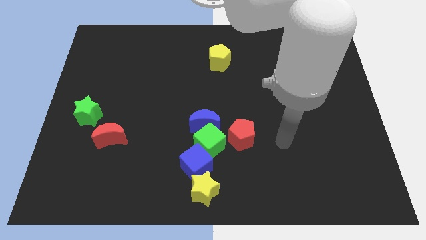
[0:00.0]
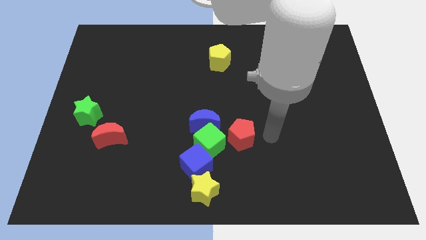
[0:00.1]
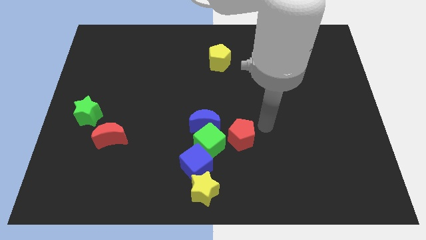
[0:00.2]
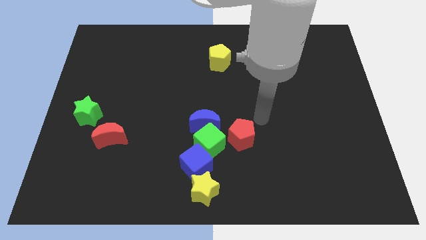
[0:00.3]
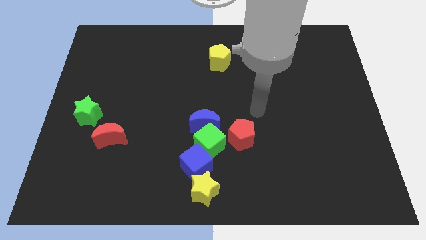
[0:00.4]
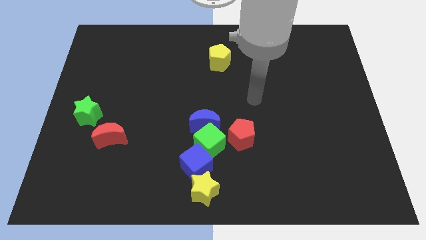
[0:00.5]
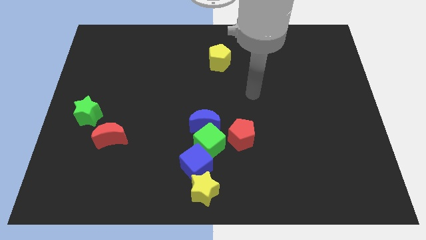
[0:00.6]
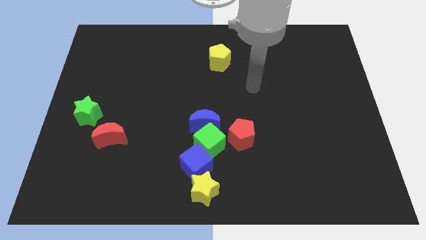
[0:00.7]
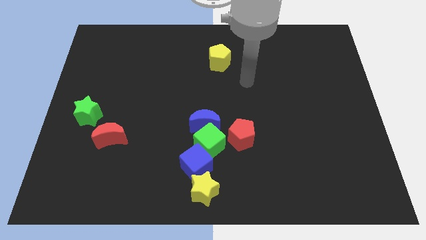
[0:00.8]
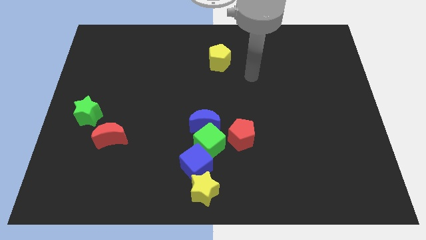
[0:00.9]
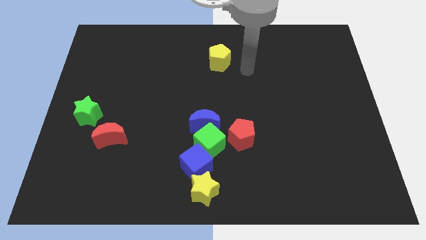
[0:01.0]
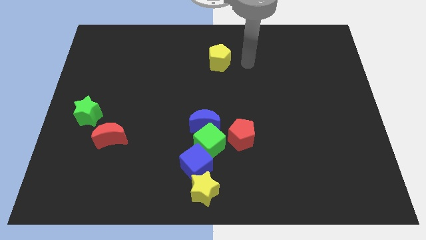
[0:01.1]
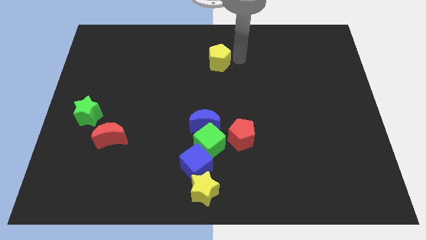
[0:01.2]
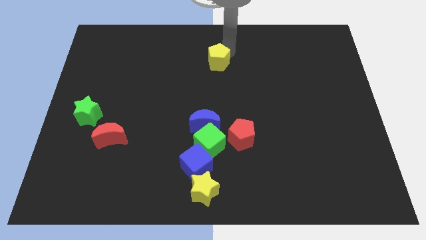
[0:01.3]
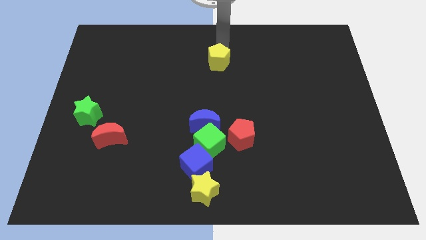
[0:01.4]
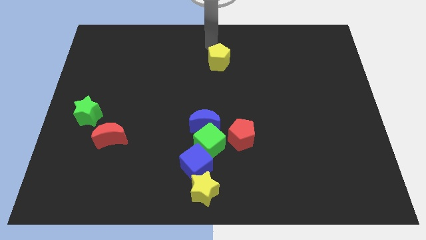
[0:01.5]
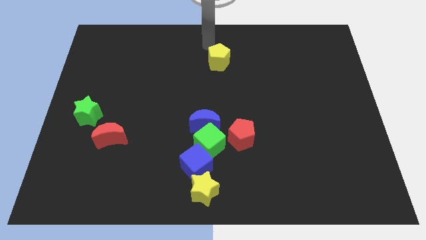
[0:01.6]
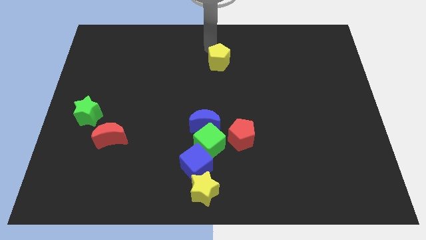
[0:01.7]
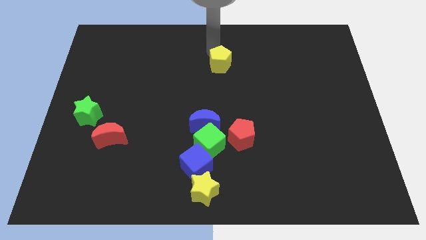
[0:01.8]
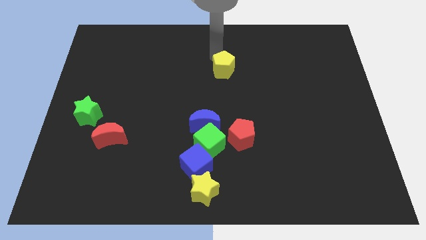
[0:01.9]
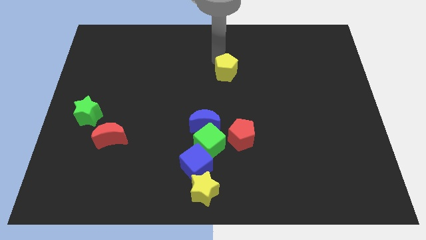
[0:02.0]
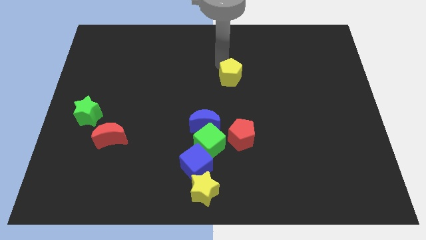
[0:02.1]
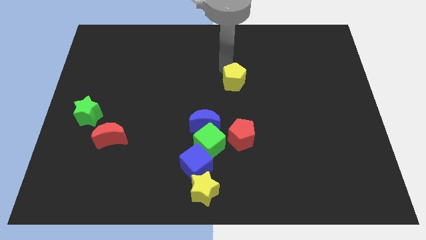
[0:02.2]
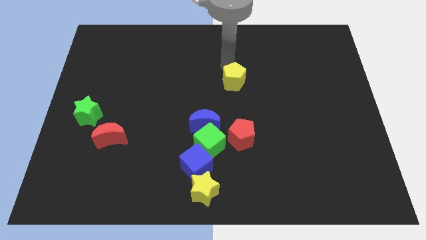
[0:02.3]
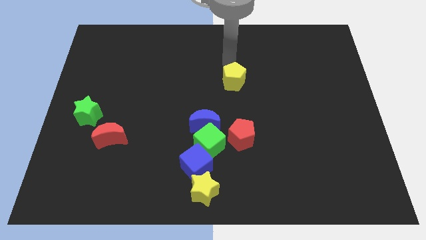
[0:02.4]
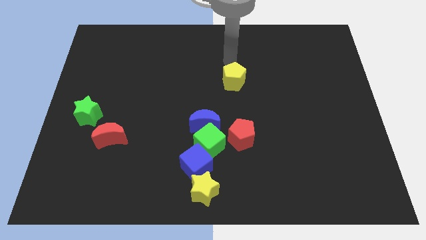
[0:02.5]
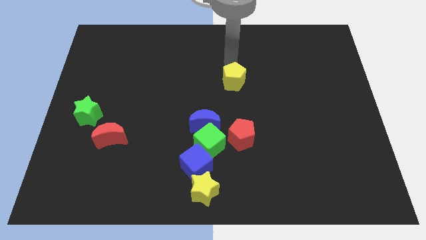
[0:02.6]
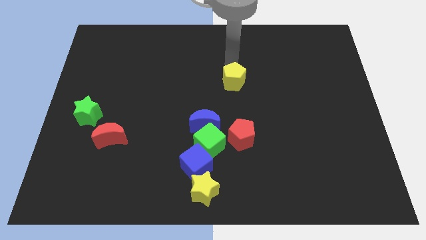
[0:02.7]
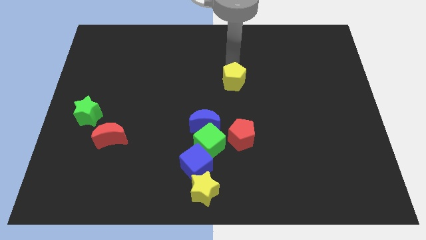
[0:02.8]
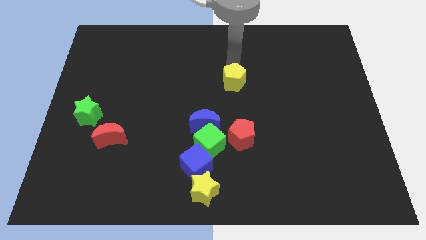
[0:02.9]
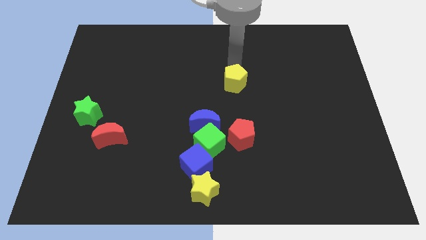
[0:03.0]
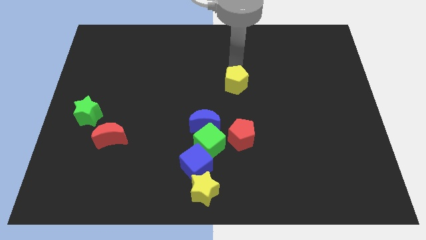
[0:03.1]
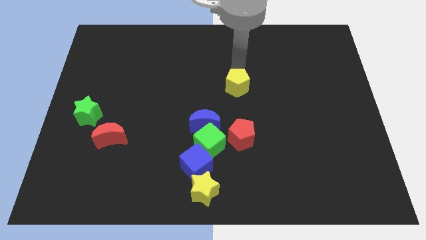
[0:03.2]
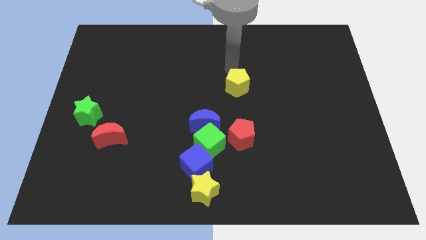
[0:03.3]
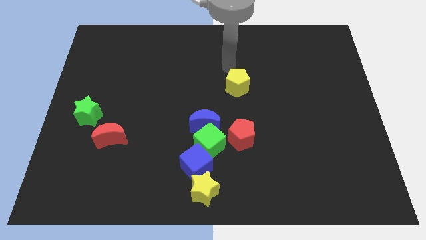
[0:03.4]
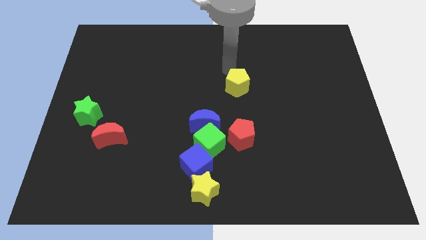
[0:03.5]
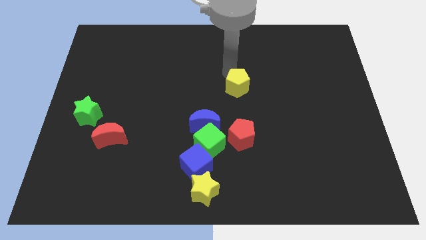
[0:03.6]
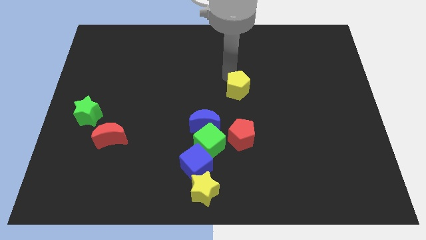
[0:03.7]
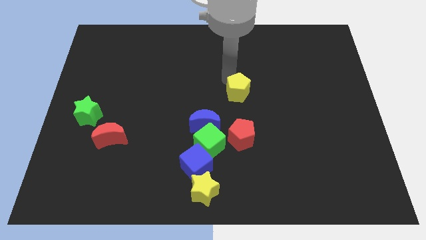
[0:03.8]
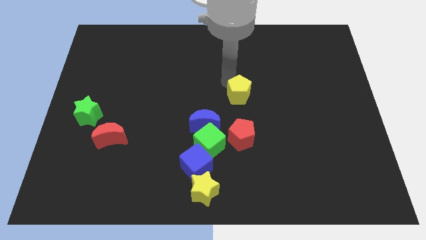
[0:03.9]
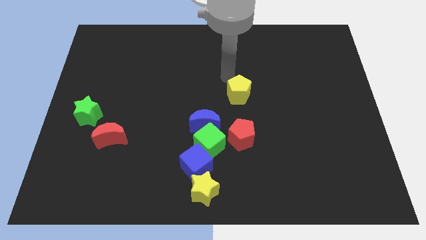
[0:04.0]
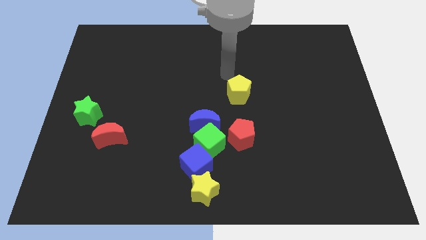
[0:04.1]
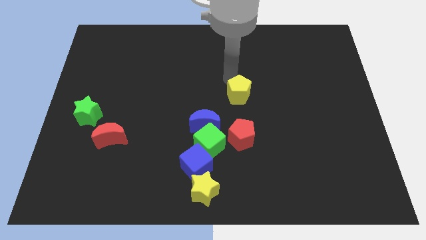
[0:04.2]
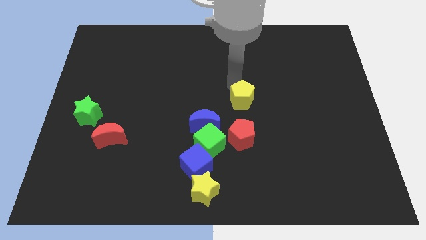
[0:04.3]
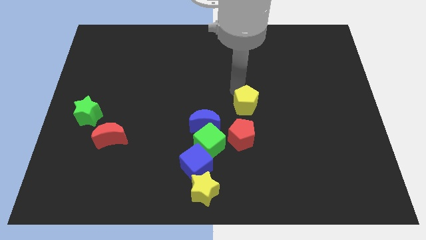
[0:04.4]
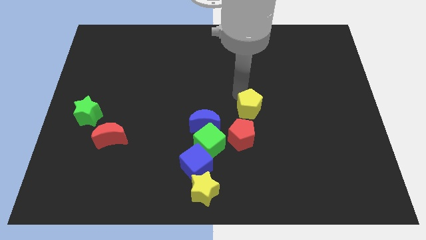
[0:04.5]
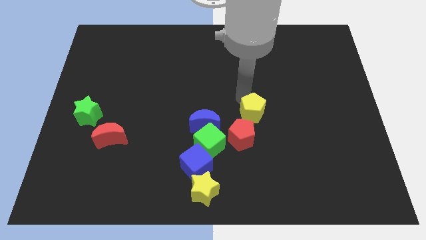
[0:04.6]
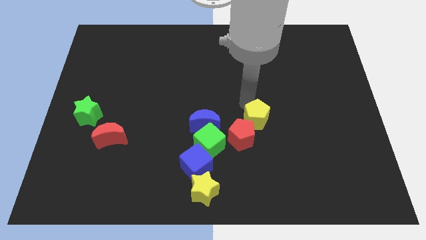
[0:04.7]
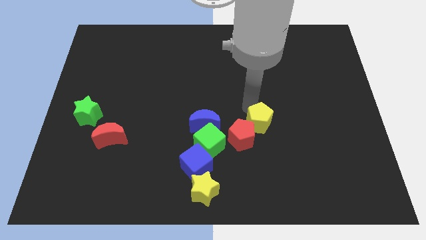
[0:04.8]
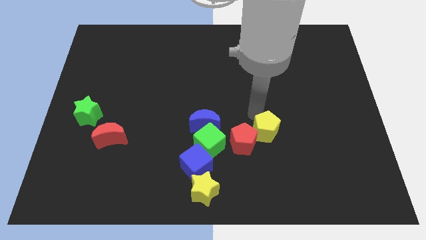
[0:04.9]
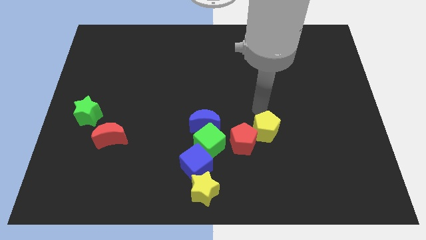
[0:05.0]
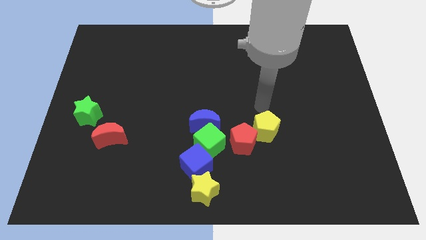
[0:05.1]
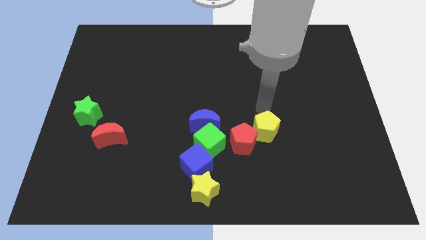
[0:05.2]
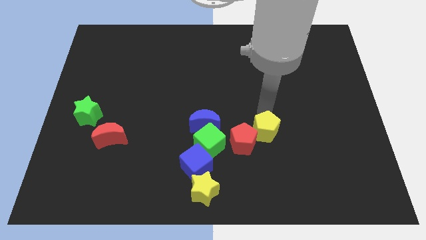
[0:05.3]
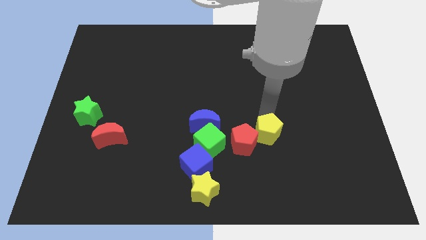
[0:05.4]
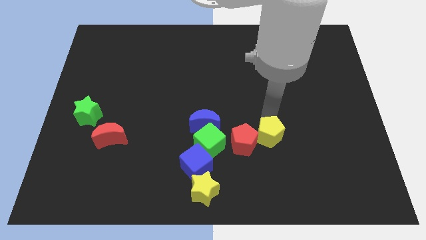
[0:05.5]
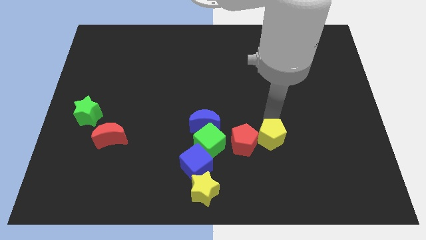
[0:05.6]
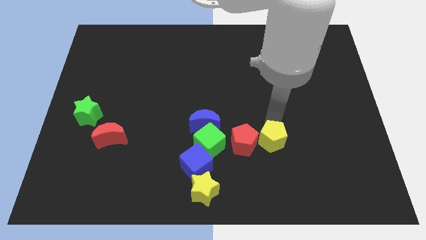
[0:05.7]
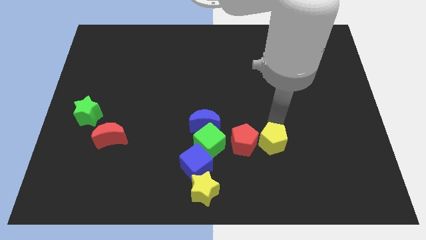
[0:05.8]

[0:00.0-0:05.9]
slide the yellow pentagon to the bottom right of the red pentagon

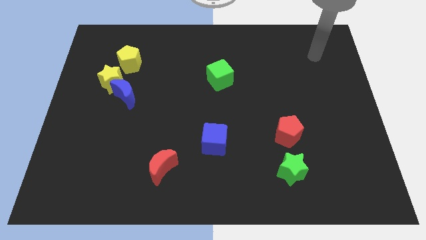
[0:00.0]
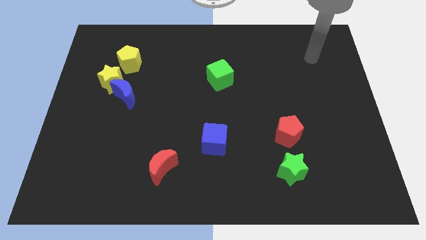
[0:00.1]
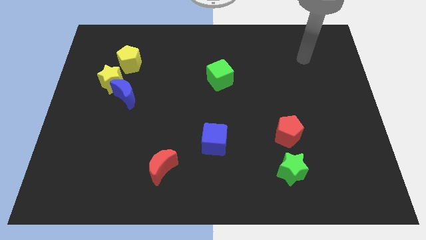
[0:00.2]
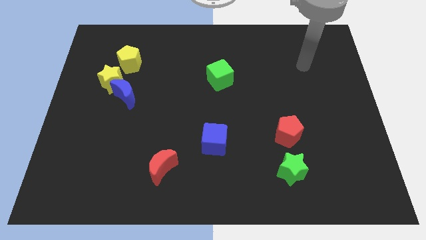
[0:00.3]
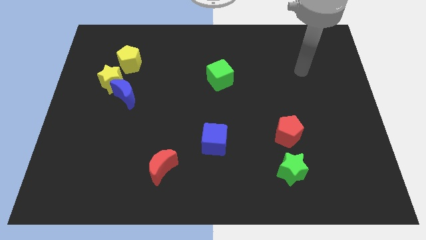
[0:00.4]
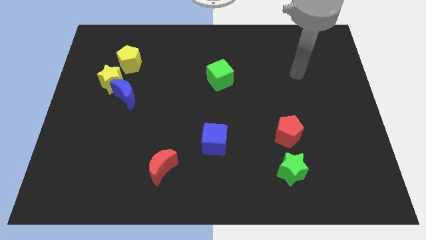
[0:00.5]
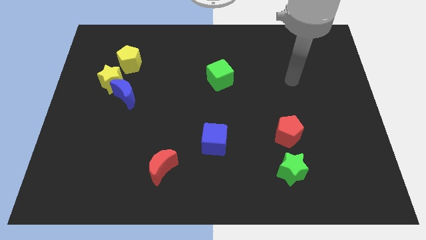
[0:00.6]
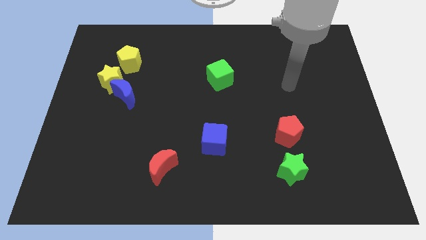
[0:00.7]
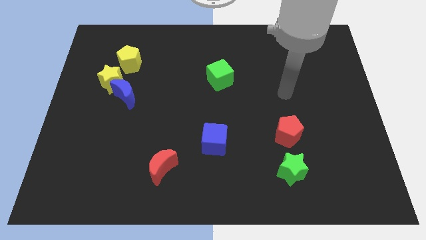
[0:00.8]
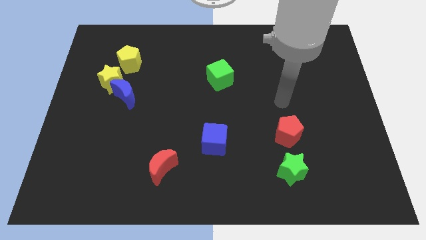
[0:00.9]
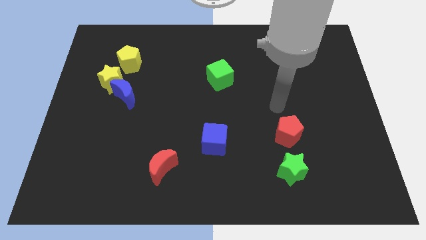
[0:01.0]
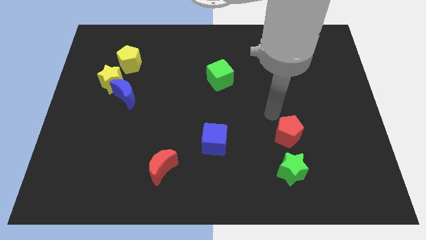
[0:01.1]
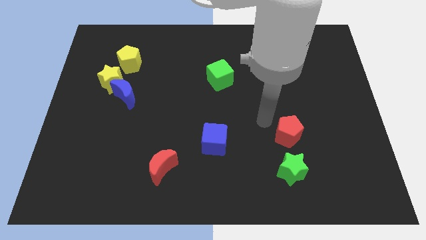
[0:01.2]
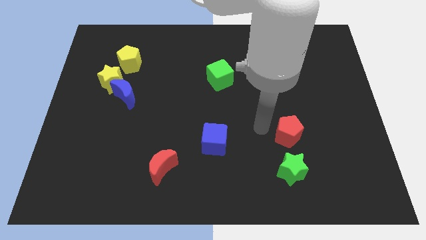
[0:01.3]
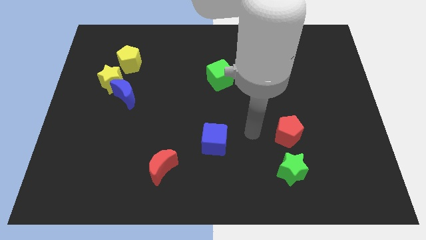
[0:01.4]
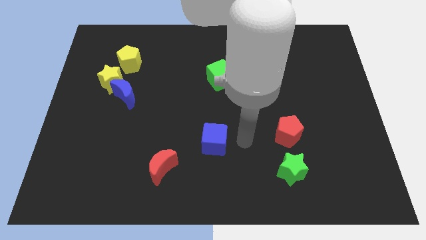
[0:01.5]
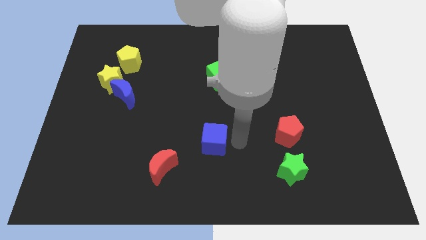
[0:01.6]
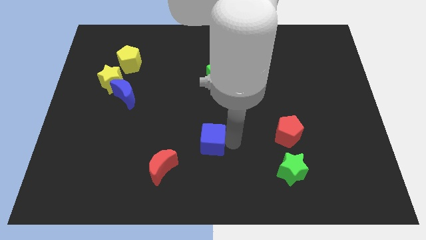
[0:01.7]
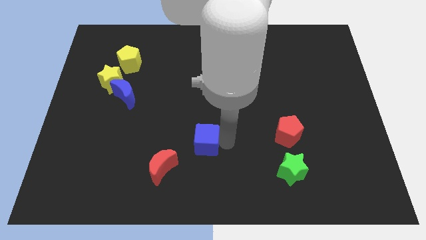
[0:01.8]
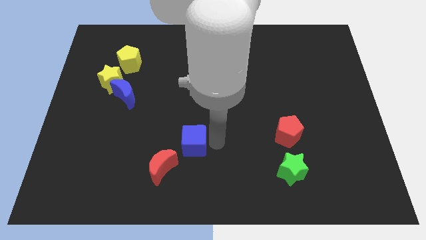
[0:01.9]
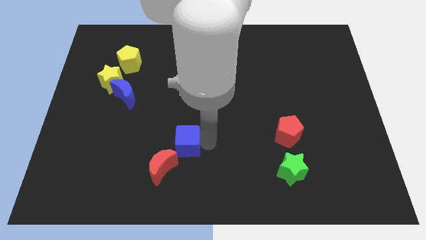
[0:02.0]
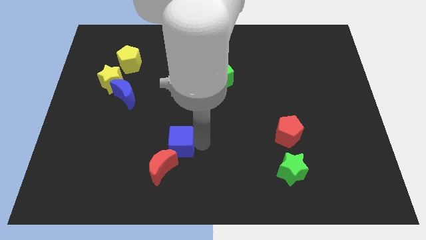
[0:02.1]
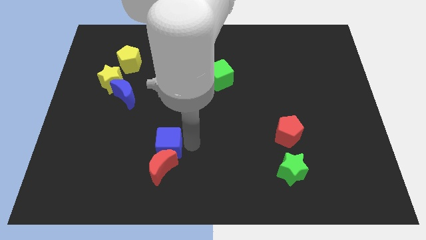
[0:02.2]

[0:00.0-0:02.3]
push the blue cube to the top left side of the red moon
